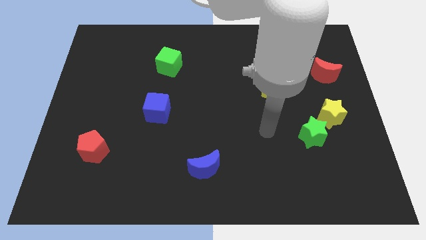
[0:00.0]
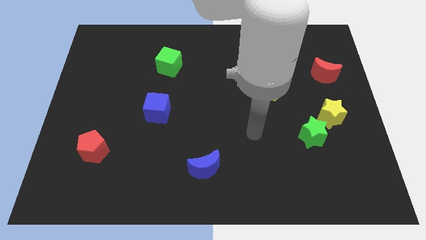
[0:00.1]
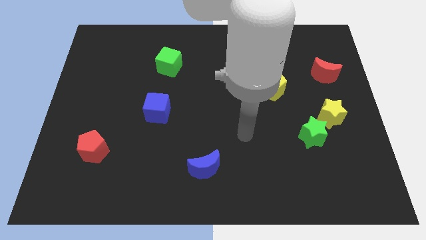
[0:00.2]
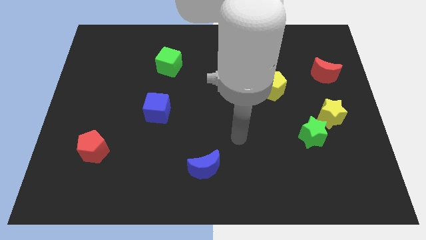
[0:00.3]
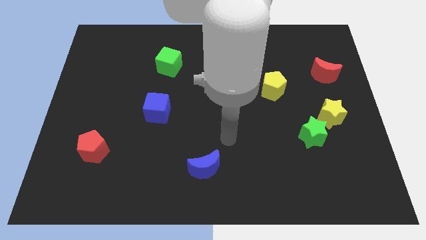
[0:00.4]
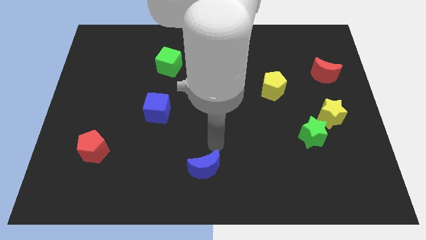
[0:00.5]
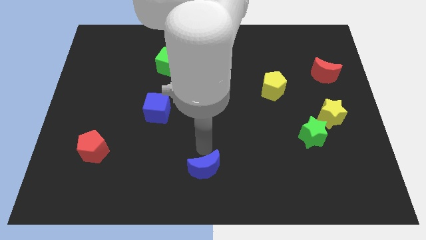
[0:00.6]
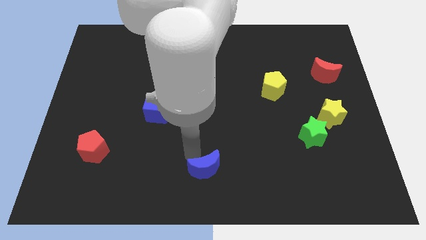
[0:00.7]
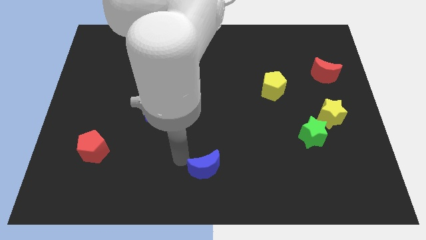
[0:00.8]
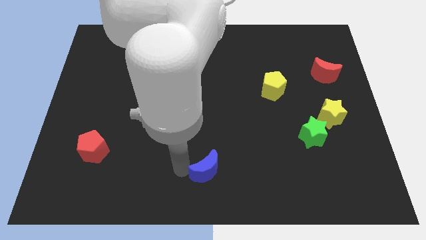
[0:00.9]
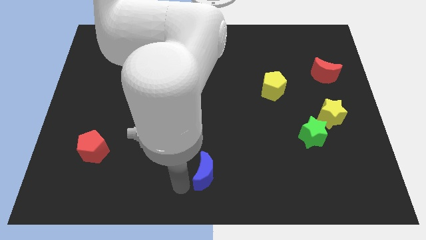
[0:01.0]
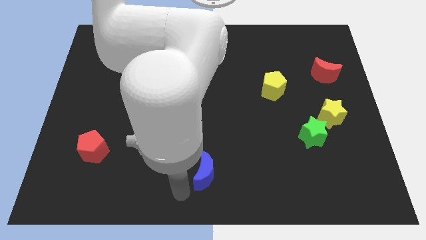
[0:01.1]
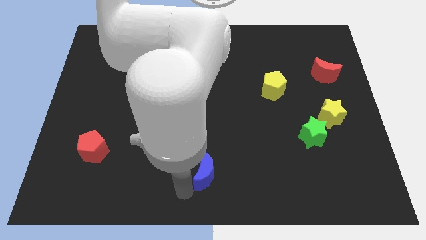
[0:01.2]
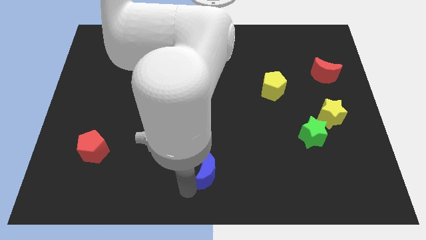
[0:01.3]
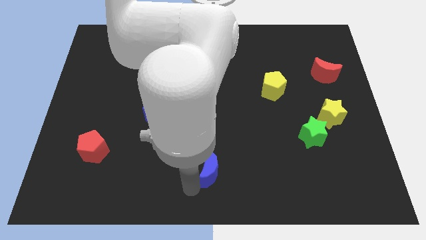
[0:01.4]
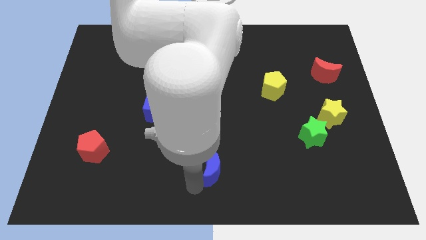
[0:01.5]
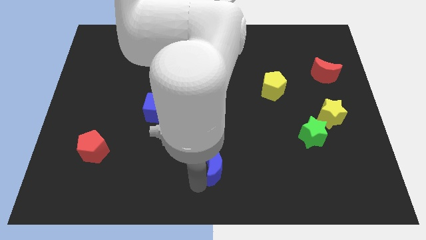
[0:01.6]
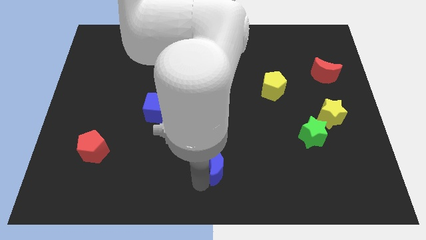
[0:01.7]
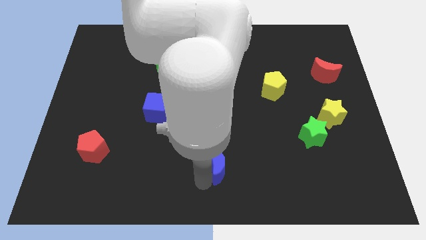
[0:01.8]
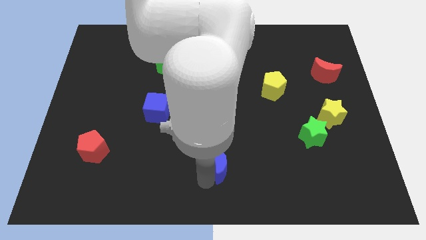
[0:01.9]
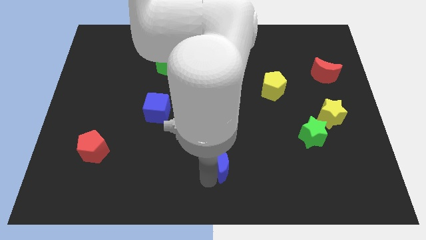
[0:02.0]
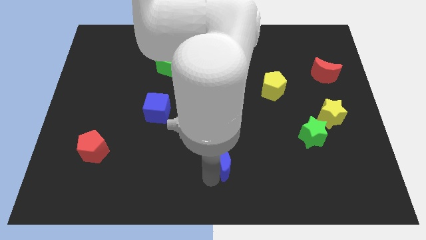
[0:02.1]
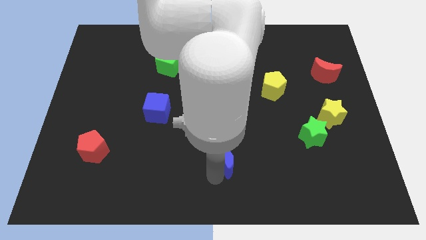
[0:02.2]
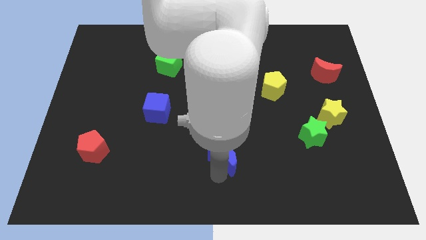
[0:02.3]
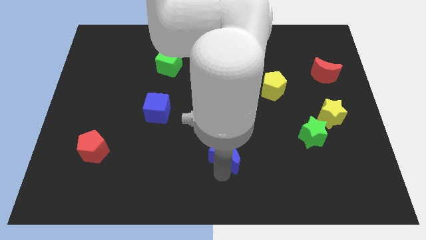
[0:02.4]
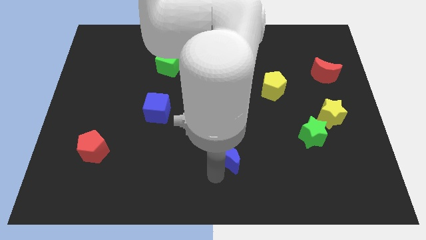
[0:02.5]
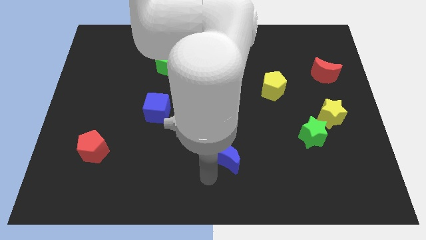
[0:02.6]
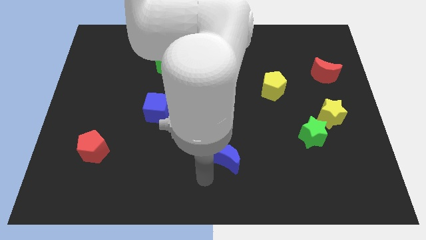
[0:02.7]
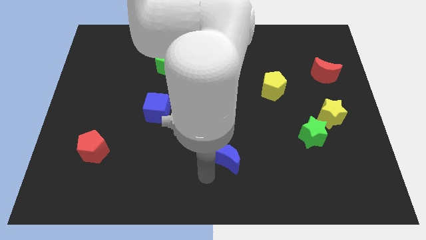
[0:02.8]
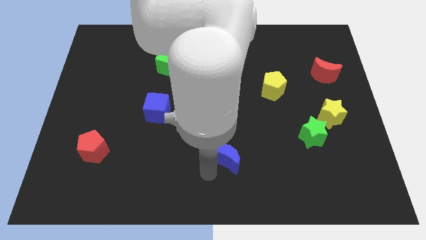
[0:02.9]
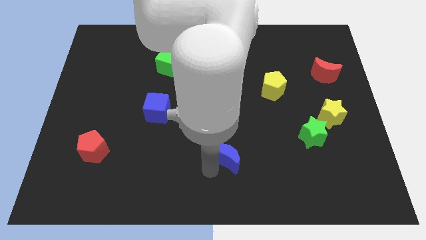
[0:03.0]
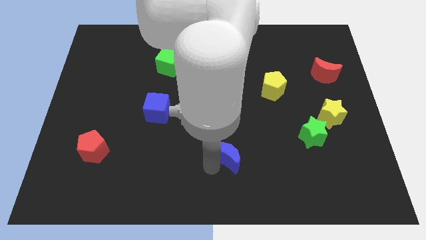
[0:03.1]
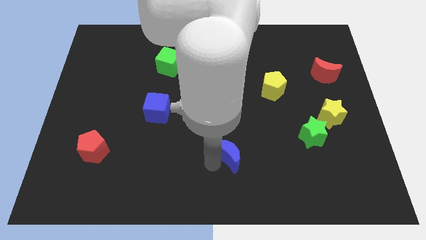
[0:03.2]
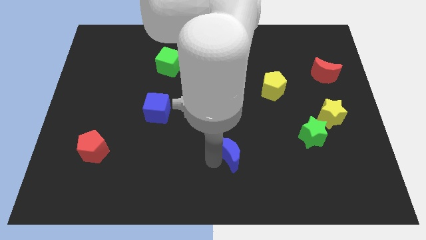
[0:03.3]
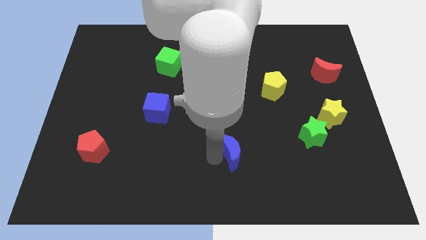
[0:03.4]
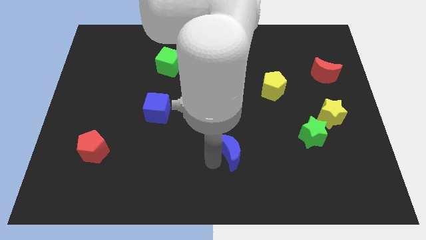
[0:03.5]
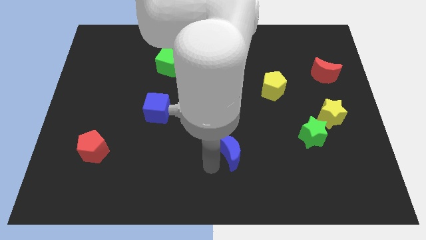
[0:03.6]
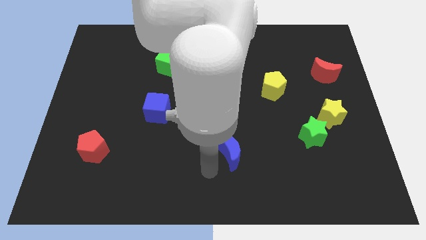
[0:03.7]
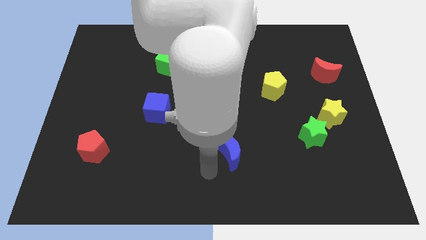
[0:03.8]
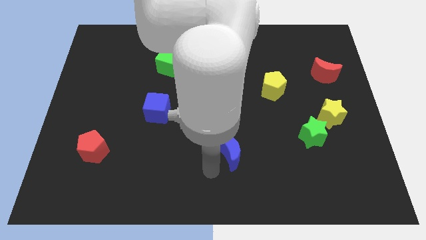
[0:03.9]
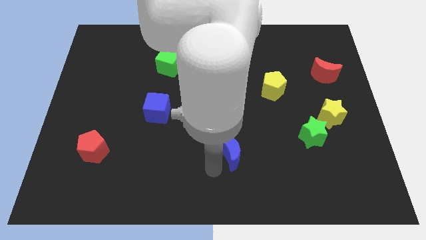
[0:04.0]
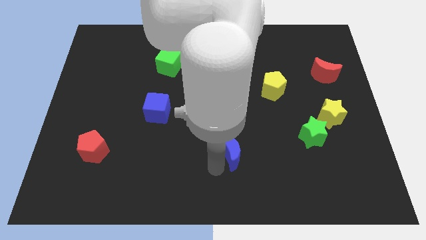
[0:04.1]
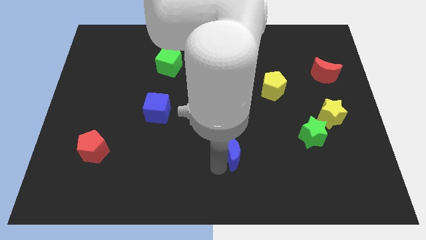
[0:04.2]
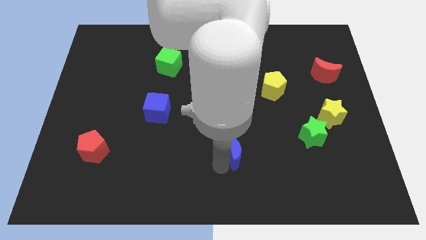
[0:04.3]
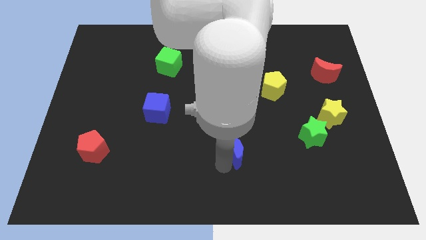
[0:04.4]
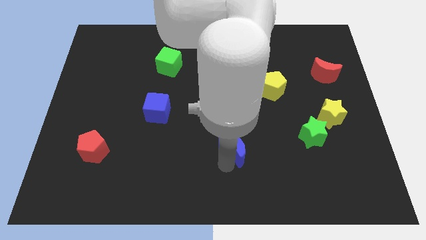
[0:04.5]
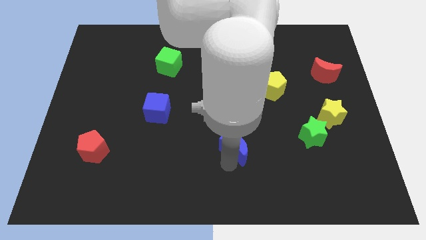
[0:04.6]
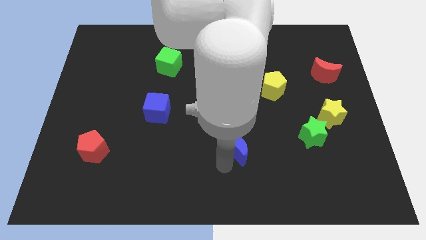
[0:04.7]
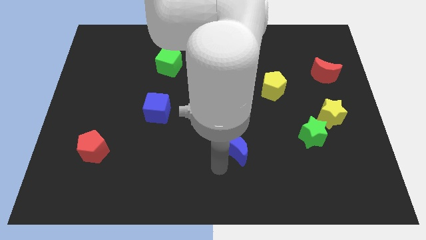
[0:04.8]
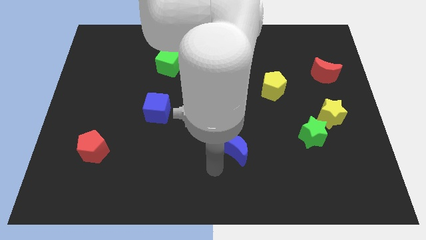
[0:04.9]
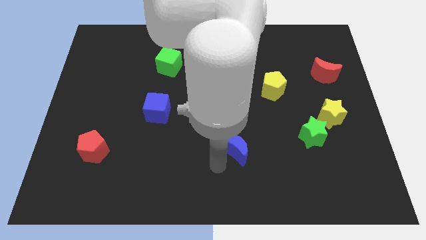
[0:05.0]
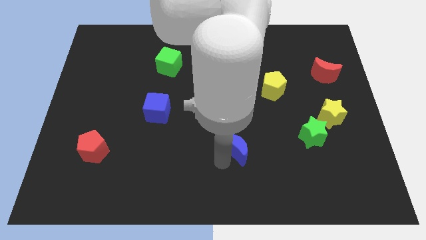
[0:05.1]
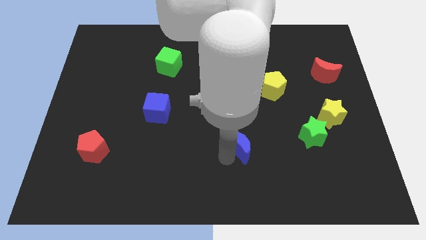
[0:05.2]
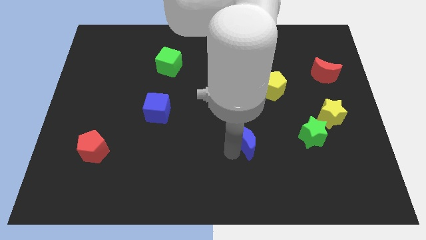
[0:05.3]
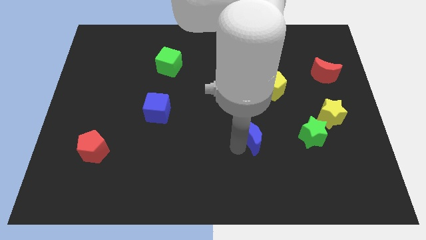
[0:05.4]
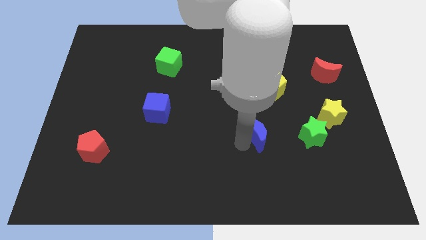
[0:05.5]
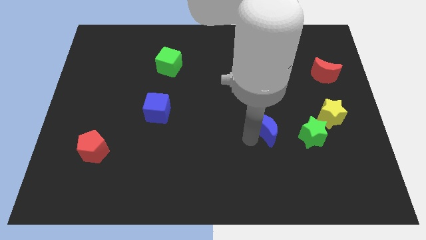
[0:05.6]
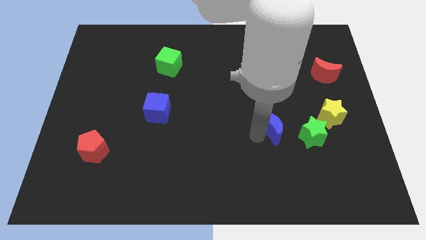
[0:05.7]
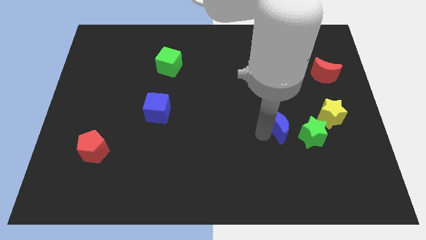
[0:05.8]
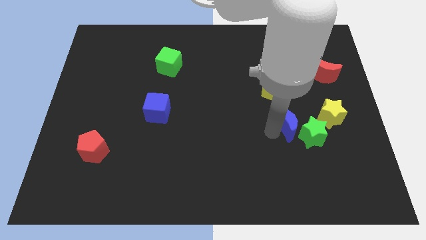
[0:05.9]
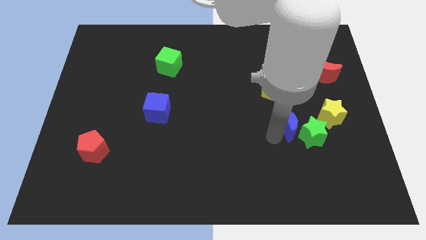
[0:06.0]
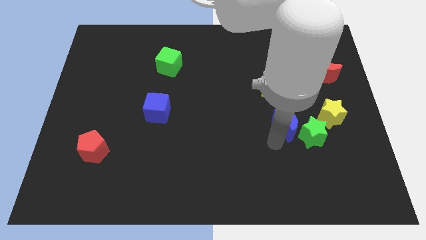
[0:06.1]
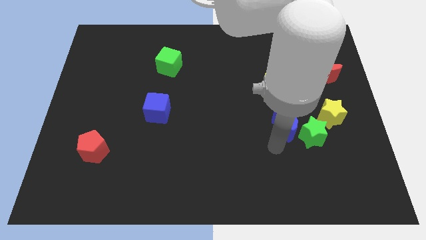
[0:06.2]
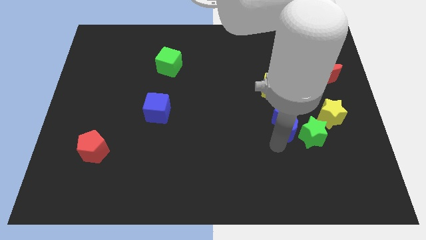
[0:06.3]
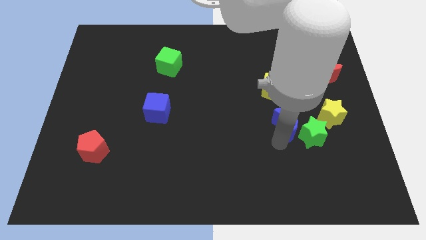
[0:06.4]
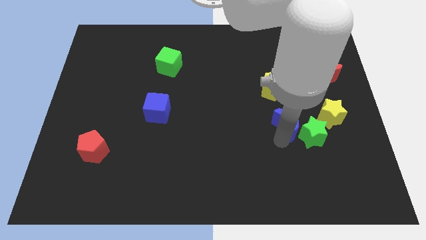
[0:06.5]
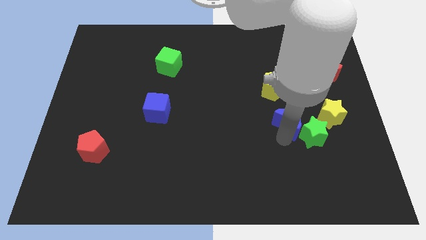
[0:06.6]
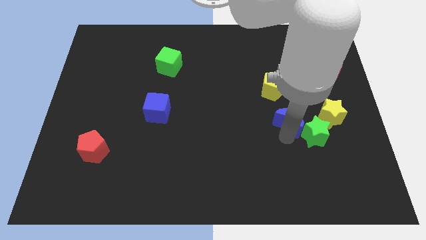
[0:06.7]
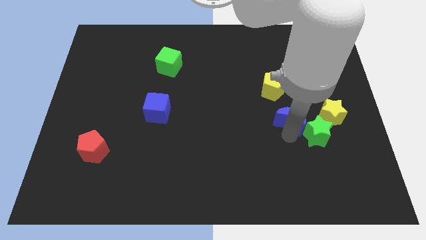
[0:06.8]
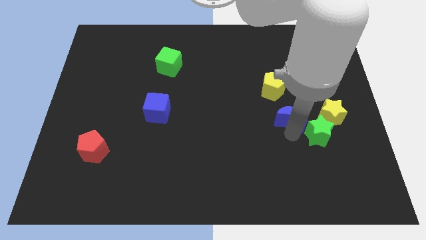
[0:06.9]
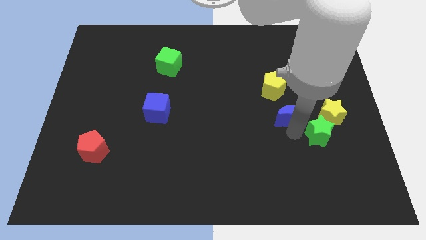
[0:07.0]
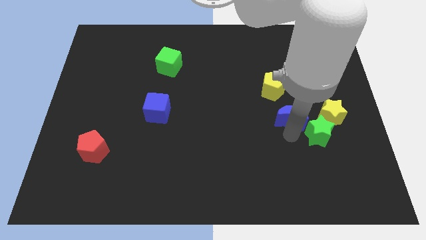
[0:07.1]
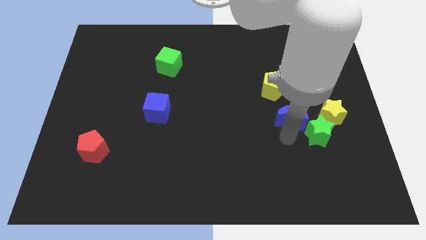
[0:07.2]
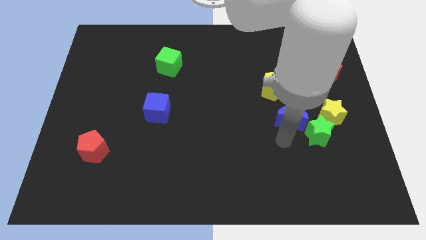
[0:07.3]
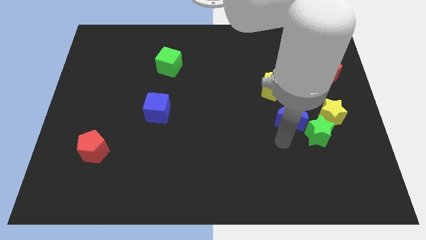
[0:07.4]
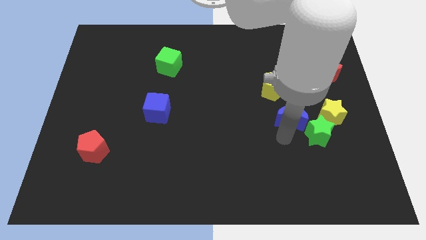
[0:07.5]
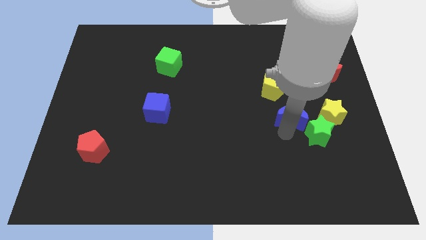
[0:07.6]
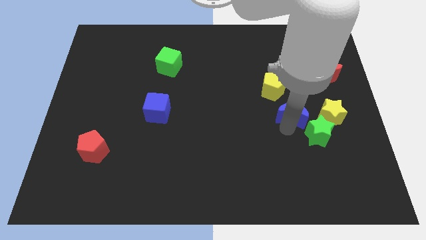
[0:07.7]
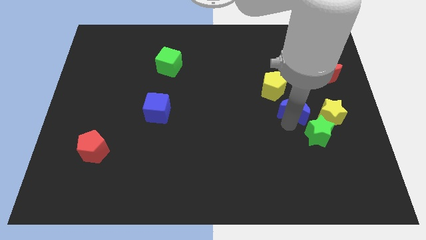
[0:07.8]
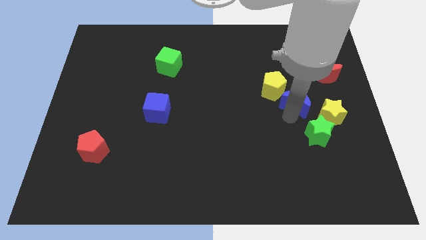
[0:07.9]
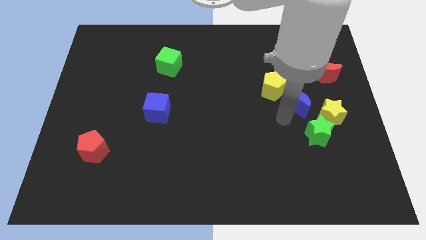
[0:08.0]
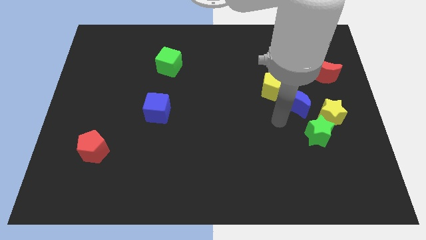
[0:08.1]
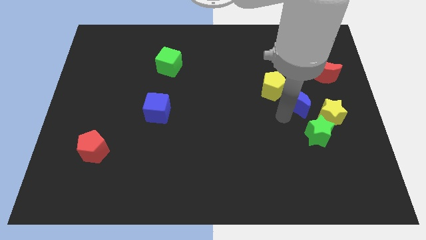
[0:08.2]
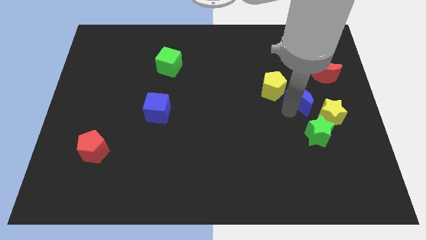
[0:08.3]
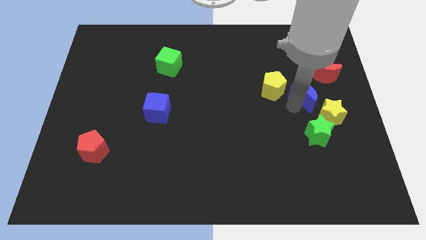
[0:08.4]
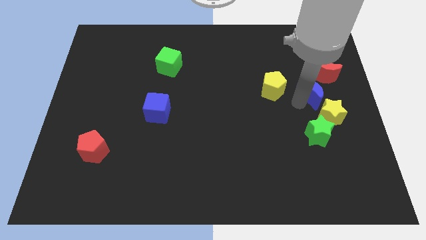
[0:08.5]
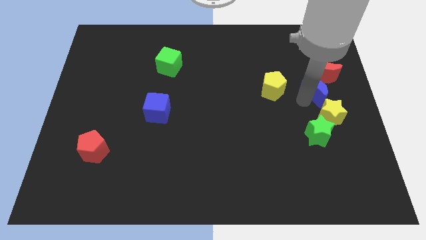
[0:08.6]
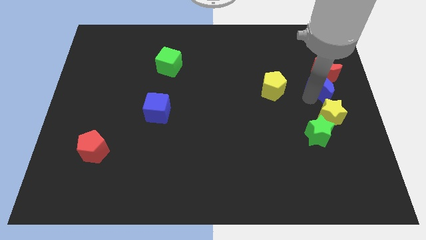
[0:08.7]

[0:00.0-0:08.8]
put the blue moon close to the red moon
